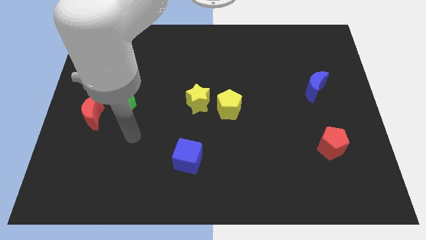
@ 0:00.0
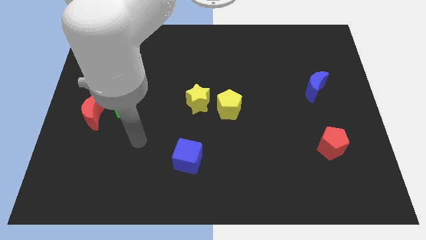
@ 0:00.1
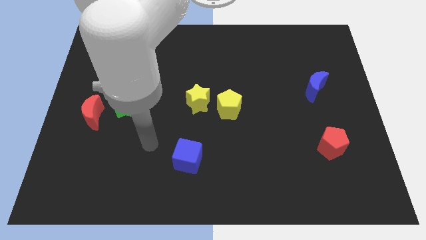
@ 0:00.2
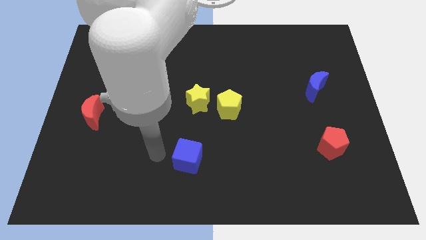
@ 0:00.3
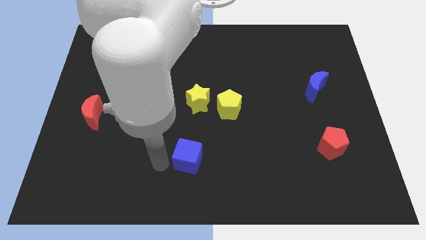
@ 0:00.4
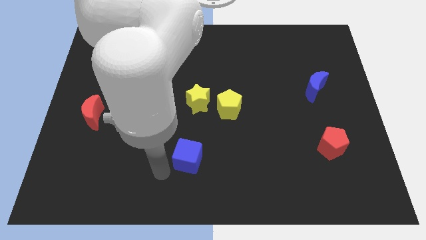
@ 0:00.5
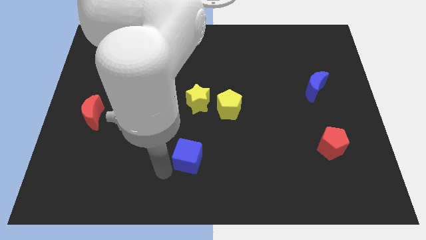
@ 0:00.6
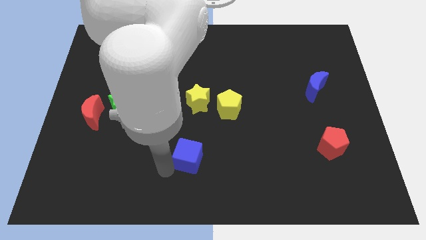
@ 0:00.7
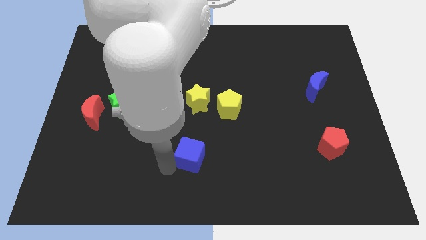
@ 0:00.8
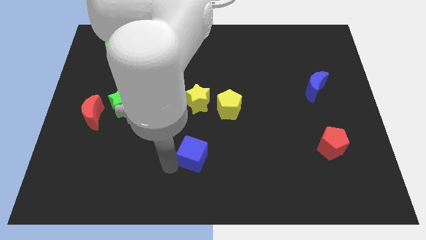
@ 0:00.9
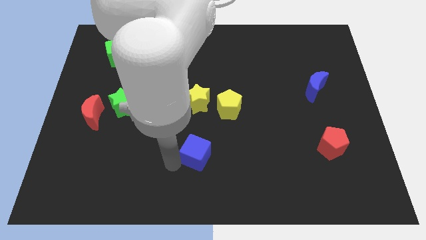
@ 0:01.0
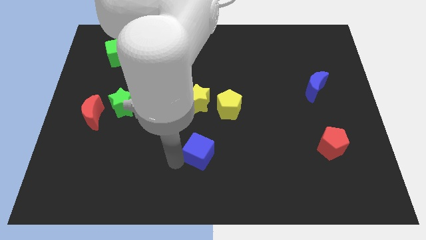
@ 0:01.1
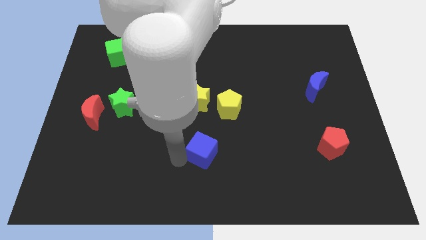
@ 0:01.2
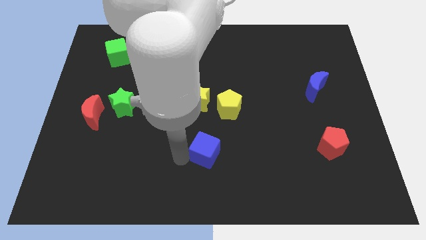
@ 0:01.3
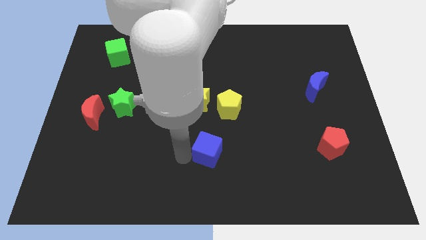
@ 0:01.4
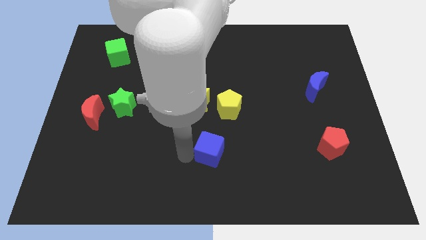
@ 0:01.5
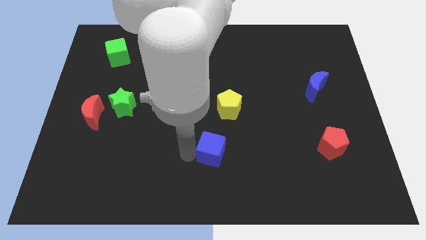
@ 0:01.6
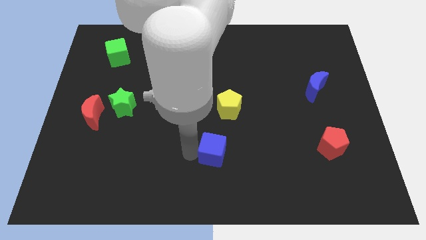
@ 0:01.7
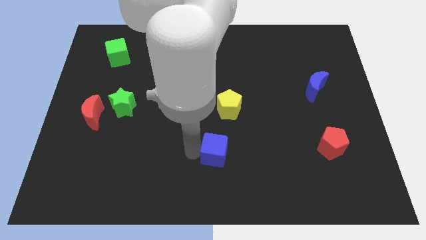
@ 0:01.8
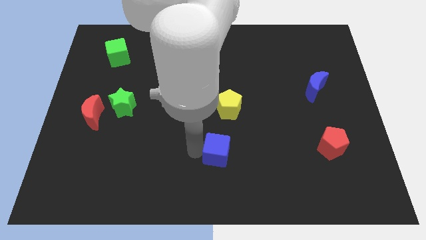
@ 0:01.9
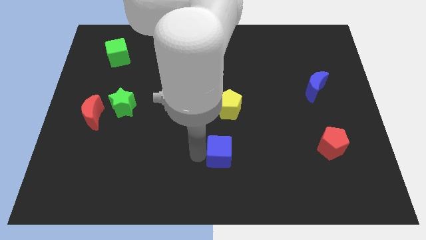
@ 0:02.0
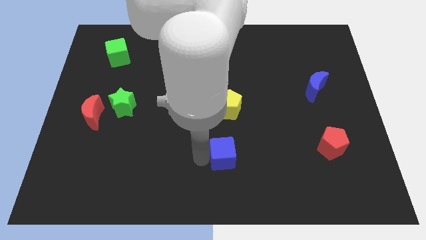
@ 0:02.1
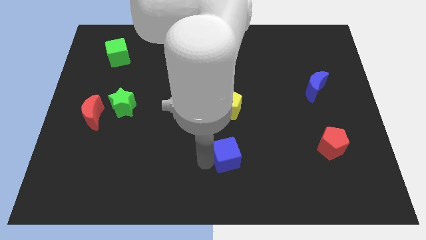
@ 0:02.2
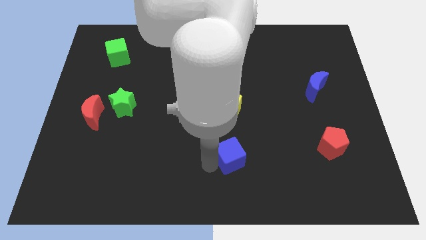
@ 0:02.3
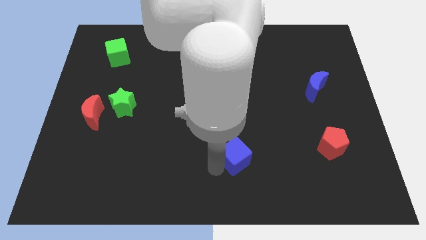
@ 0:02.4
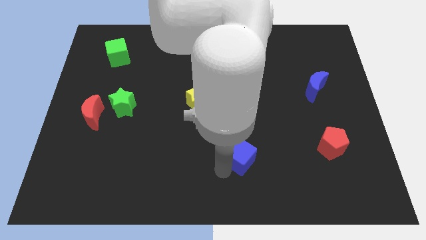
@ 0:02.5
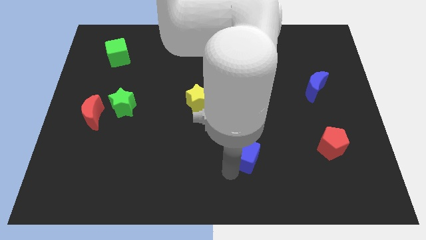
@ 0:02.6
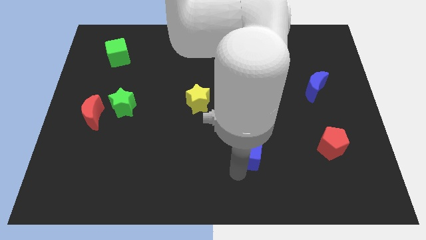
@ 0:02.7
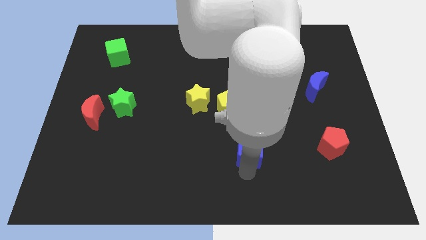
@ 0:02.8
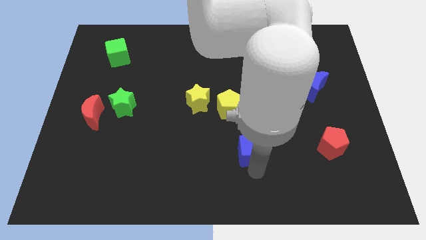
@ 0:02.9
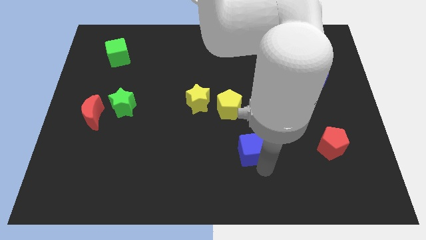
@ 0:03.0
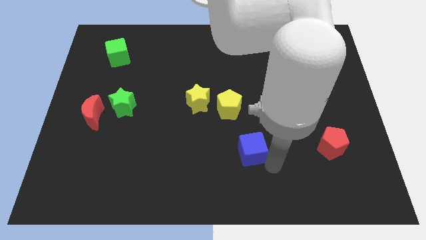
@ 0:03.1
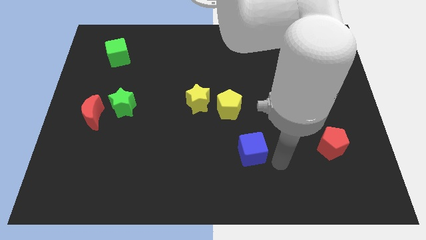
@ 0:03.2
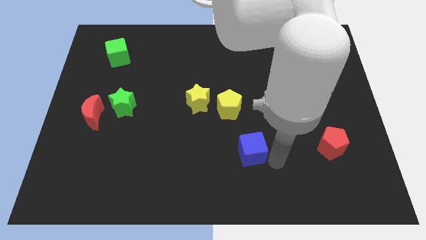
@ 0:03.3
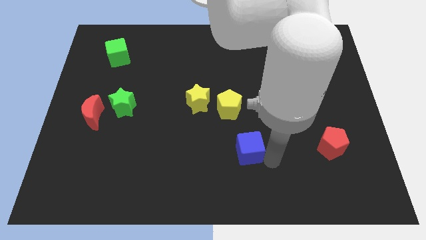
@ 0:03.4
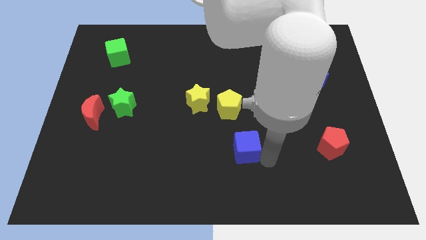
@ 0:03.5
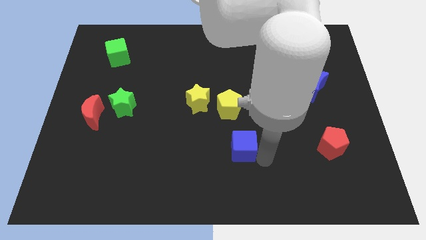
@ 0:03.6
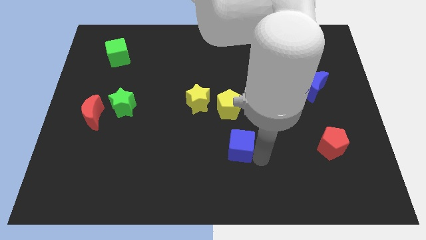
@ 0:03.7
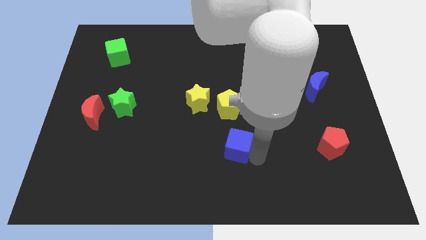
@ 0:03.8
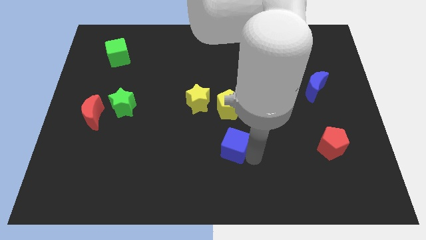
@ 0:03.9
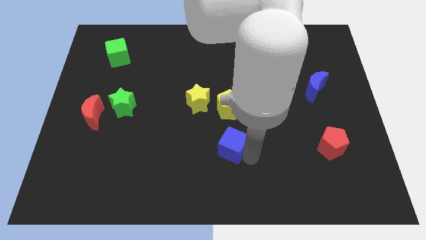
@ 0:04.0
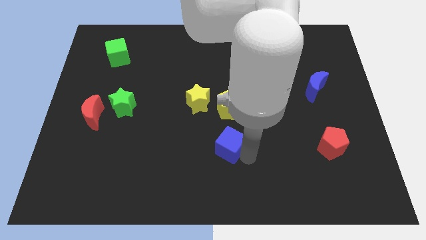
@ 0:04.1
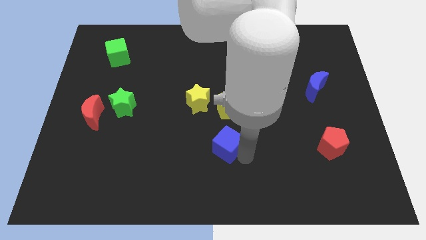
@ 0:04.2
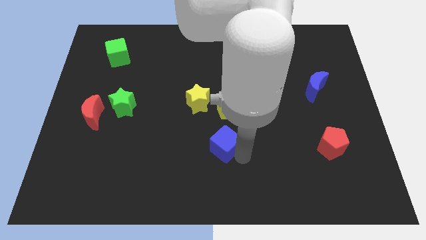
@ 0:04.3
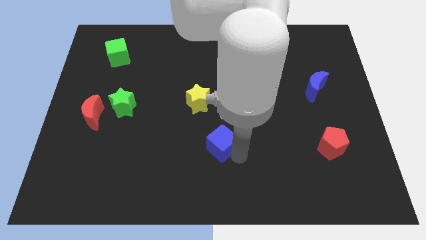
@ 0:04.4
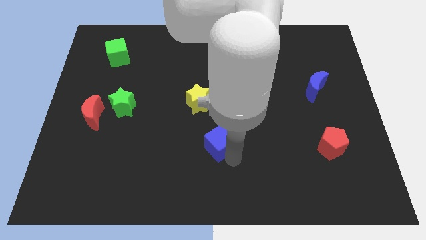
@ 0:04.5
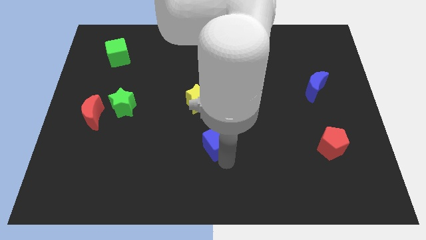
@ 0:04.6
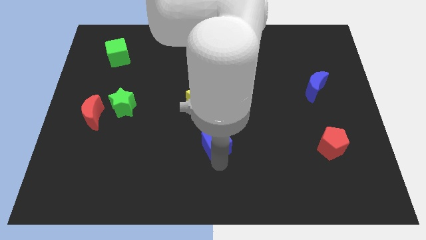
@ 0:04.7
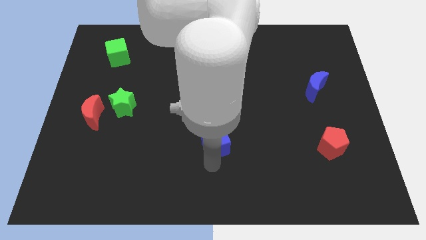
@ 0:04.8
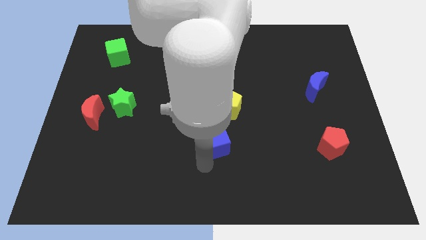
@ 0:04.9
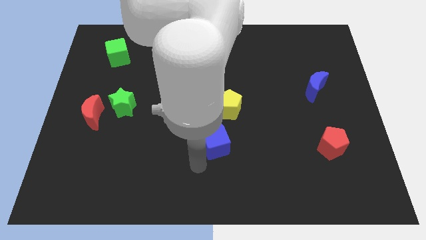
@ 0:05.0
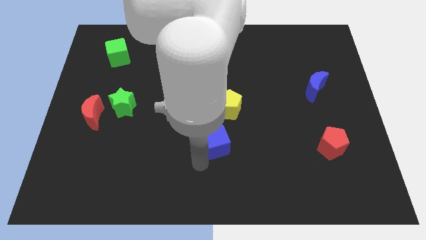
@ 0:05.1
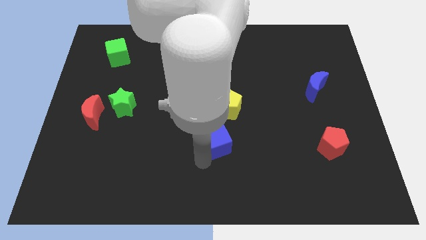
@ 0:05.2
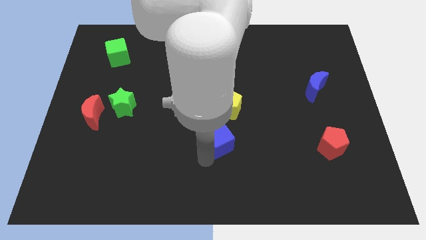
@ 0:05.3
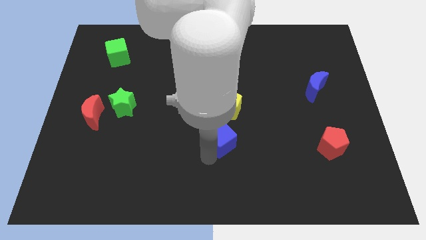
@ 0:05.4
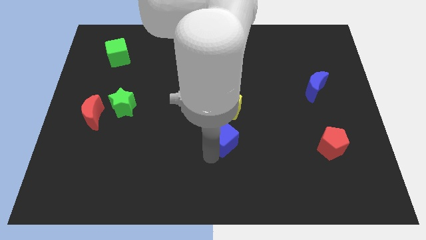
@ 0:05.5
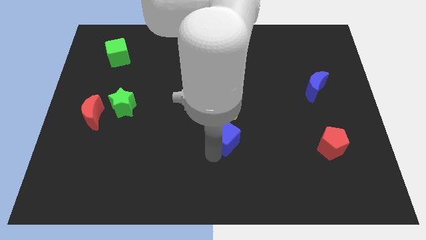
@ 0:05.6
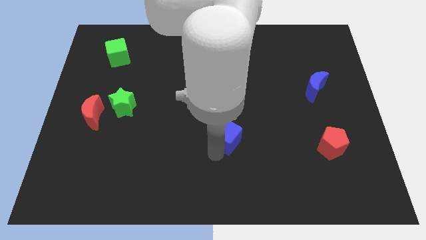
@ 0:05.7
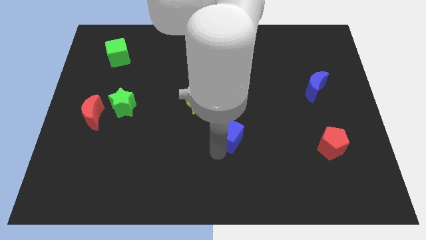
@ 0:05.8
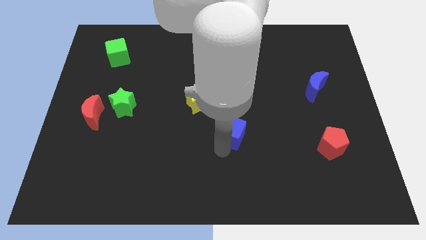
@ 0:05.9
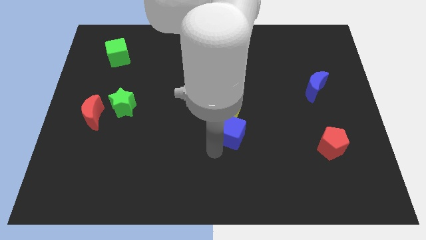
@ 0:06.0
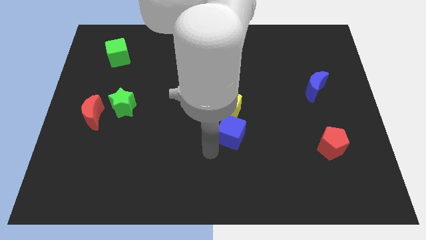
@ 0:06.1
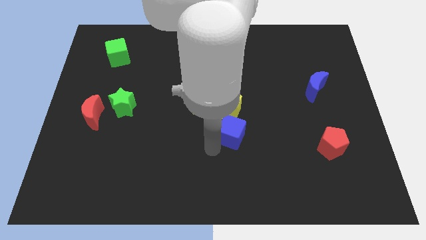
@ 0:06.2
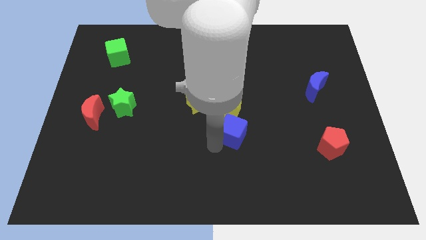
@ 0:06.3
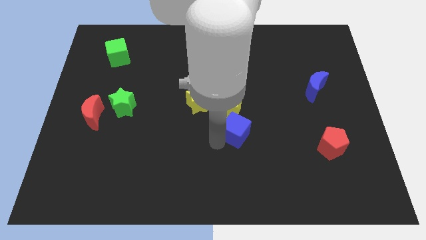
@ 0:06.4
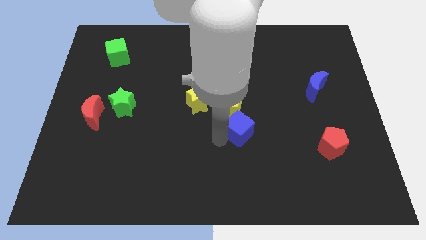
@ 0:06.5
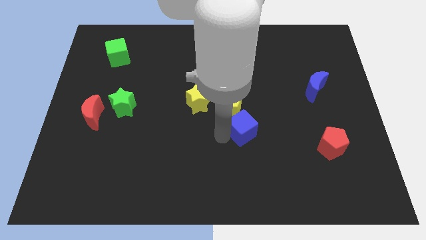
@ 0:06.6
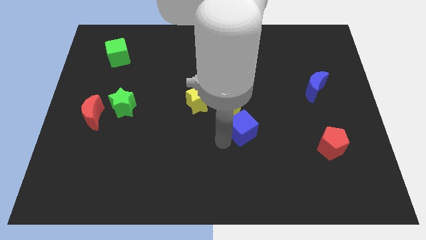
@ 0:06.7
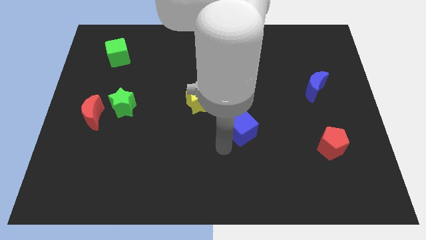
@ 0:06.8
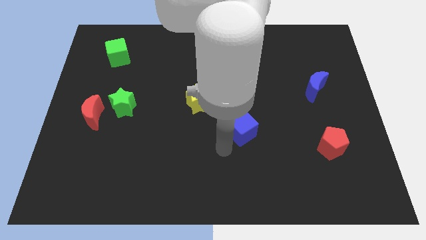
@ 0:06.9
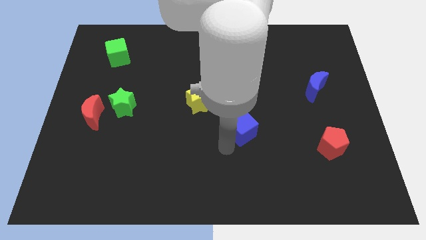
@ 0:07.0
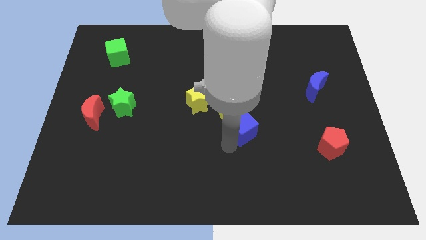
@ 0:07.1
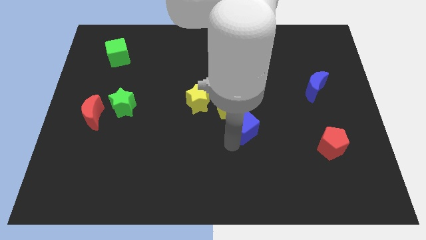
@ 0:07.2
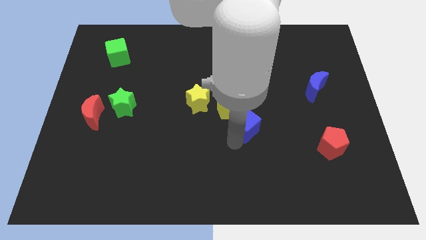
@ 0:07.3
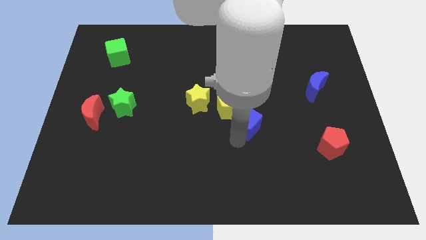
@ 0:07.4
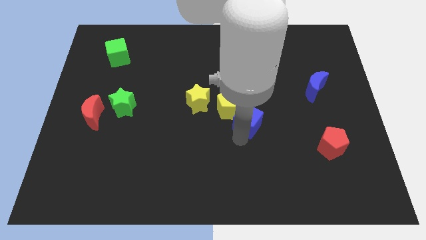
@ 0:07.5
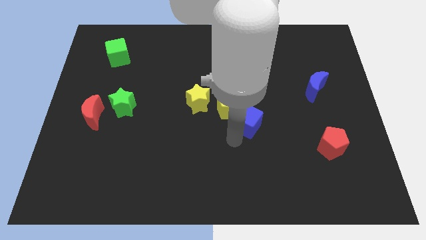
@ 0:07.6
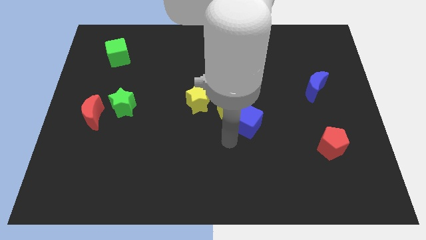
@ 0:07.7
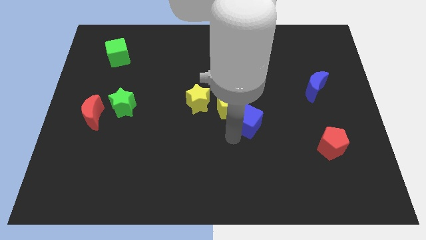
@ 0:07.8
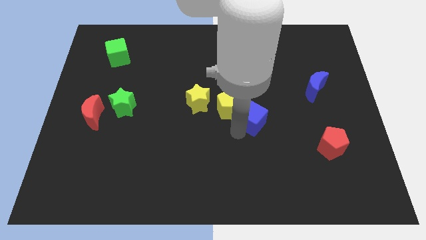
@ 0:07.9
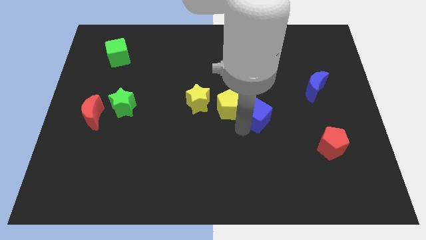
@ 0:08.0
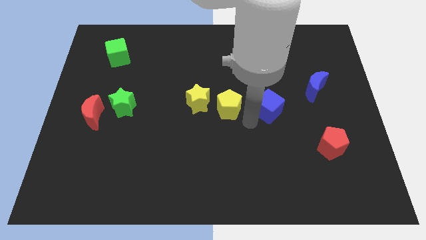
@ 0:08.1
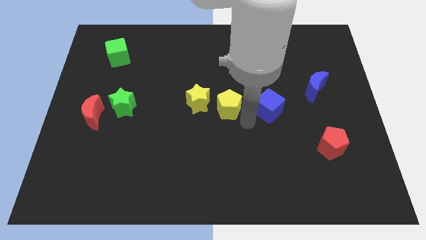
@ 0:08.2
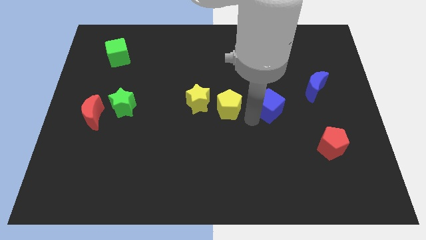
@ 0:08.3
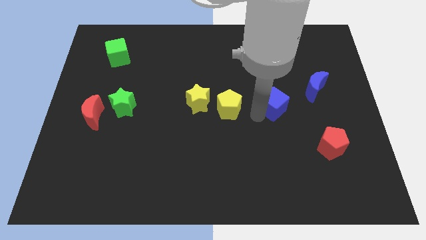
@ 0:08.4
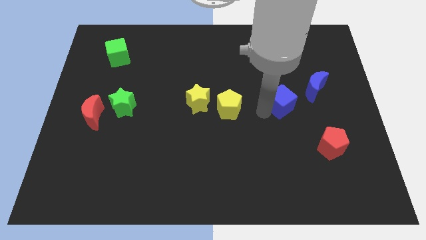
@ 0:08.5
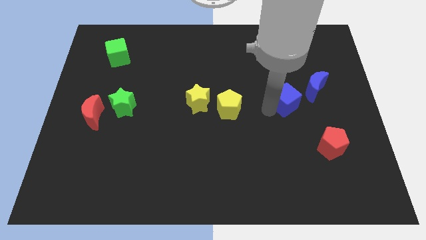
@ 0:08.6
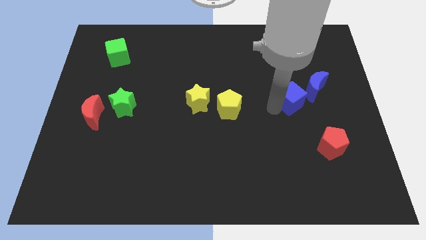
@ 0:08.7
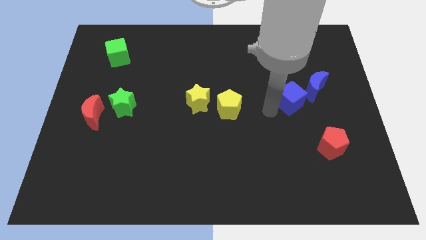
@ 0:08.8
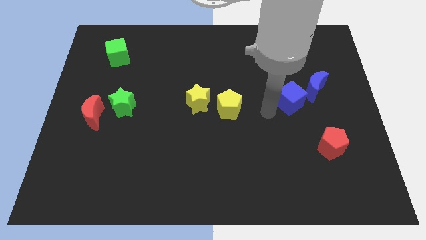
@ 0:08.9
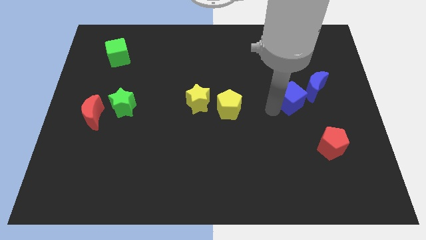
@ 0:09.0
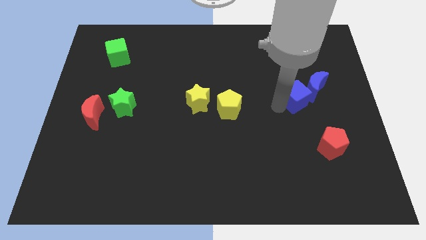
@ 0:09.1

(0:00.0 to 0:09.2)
push the blue cube next to the blue moon
